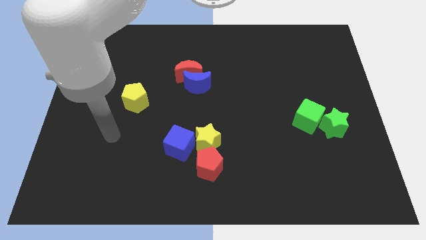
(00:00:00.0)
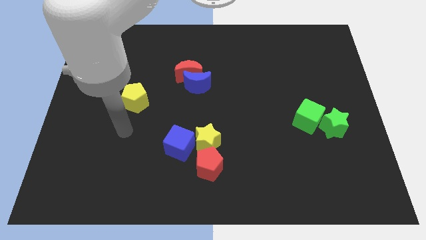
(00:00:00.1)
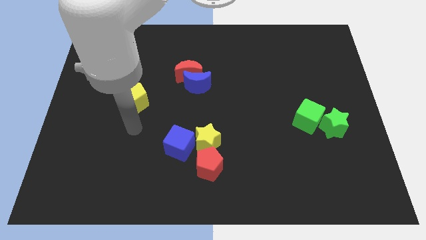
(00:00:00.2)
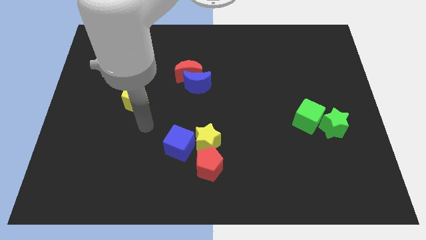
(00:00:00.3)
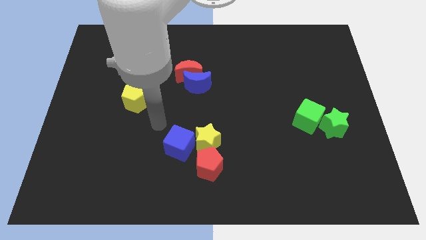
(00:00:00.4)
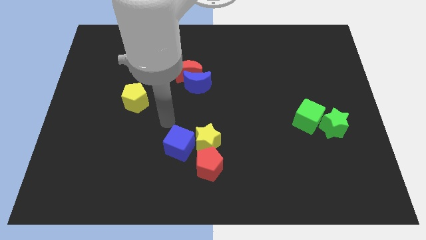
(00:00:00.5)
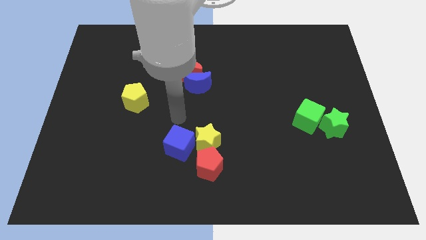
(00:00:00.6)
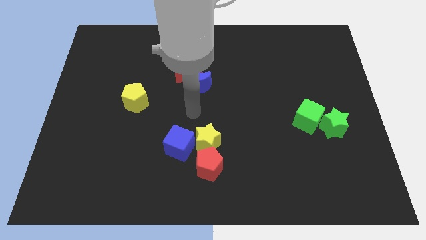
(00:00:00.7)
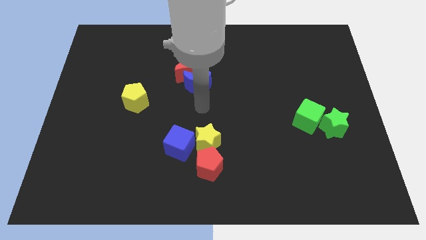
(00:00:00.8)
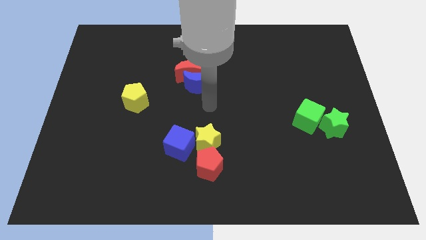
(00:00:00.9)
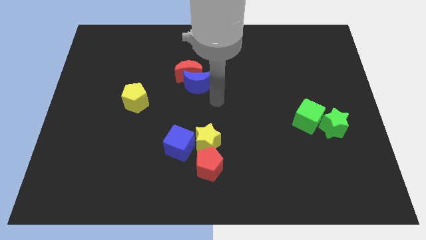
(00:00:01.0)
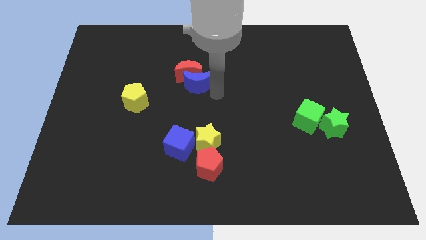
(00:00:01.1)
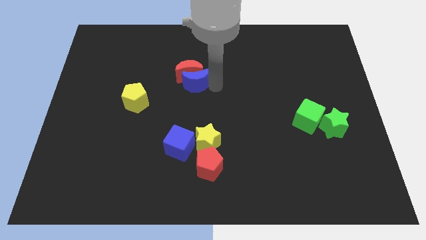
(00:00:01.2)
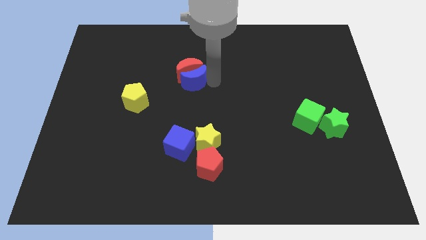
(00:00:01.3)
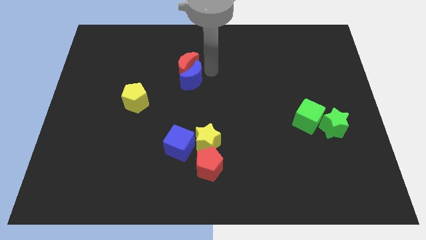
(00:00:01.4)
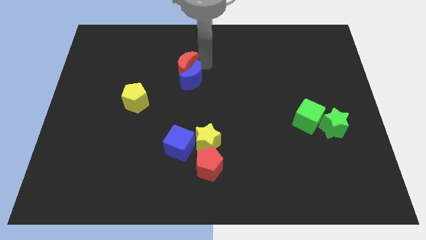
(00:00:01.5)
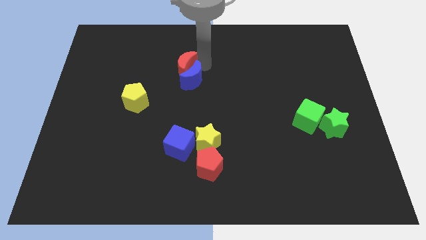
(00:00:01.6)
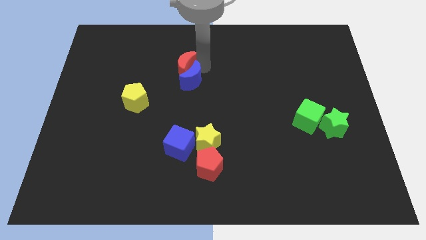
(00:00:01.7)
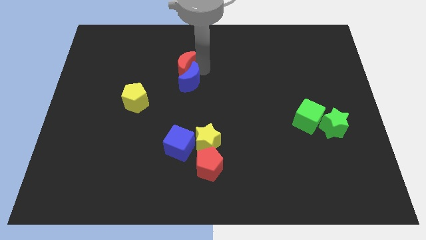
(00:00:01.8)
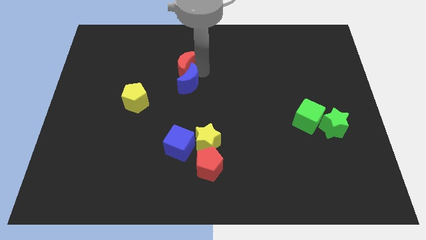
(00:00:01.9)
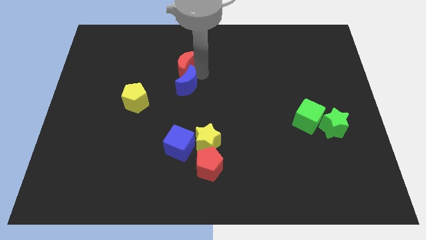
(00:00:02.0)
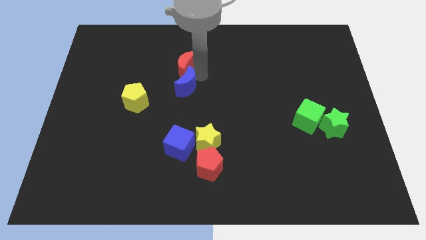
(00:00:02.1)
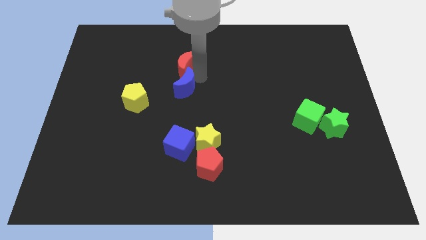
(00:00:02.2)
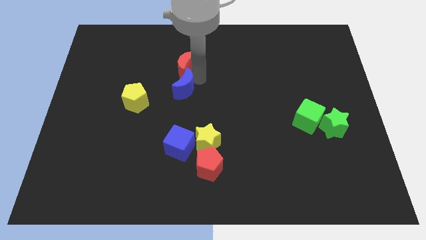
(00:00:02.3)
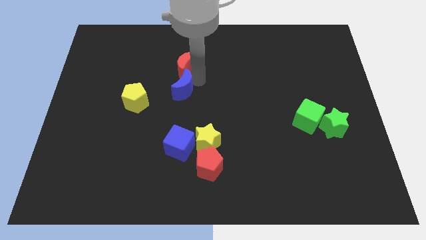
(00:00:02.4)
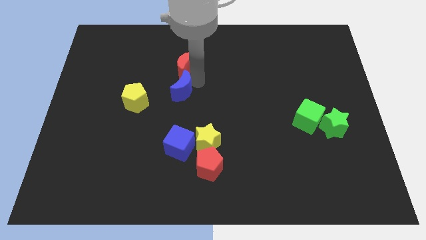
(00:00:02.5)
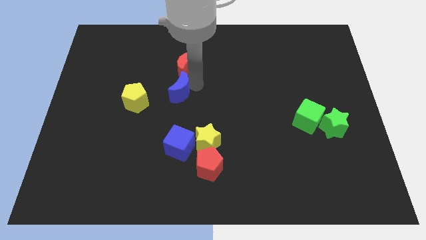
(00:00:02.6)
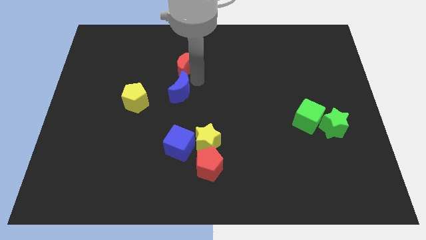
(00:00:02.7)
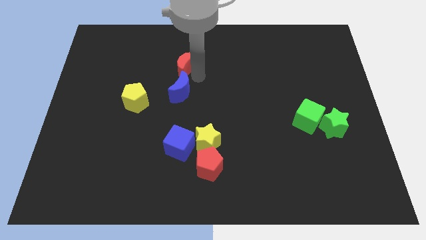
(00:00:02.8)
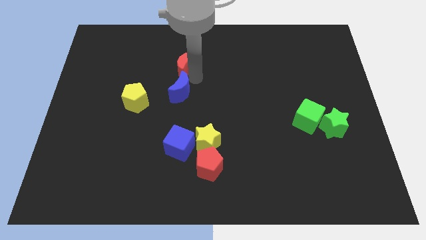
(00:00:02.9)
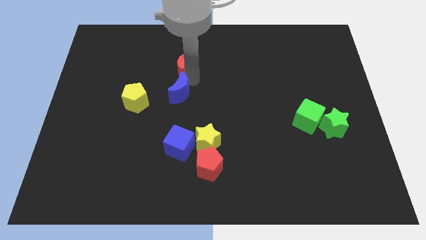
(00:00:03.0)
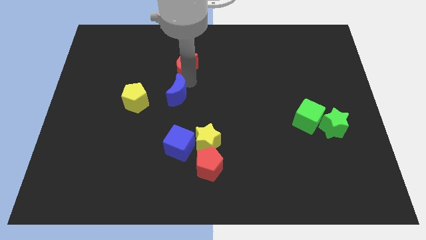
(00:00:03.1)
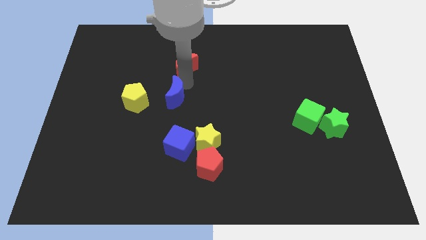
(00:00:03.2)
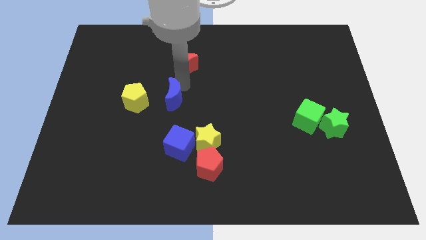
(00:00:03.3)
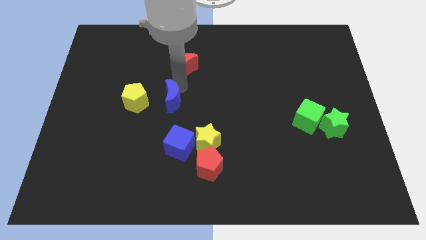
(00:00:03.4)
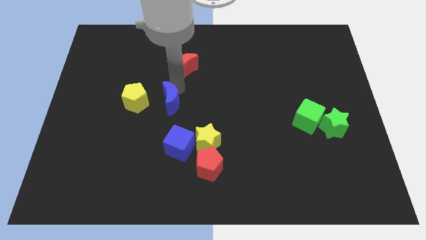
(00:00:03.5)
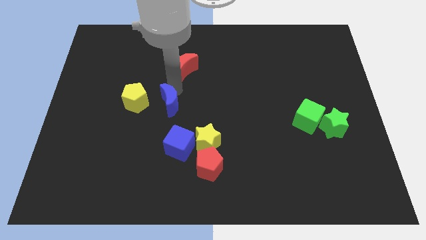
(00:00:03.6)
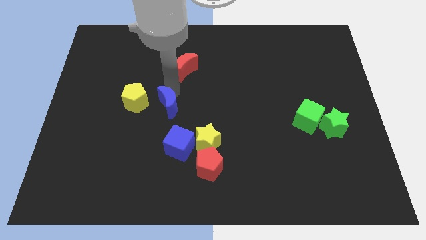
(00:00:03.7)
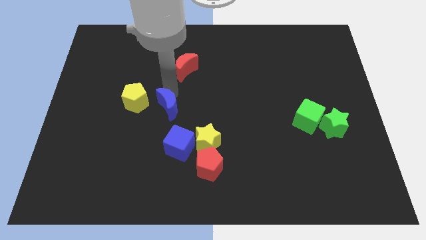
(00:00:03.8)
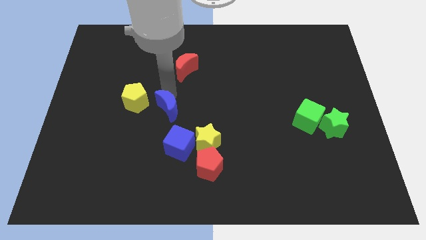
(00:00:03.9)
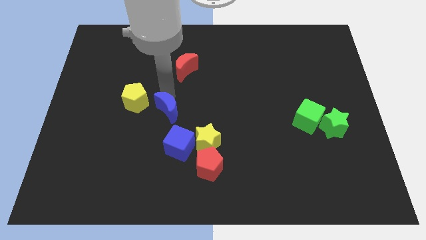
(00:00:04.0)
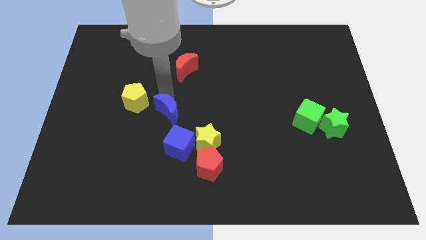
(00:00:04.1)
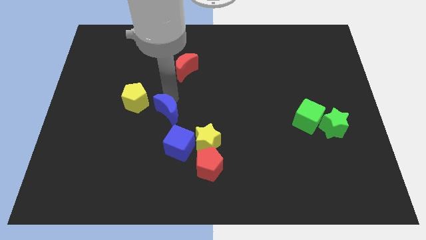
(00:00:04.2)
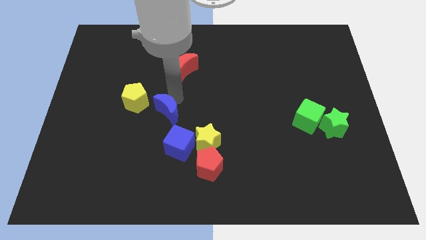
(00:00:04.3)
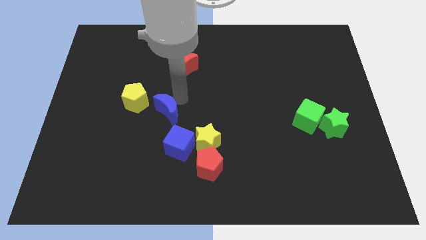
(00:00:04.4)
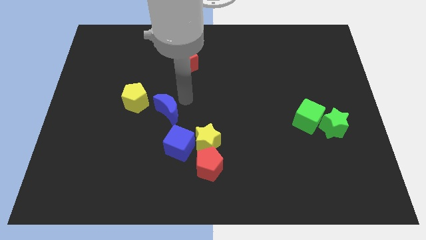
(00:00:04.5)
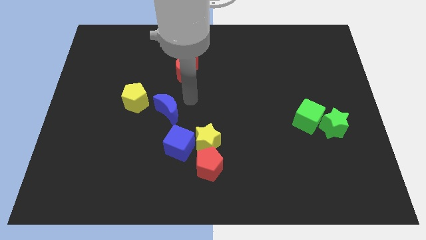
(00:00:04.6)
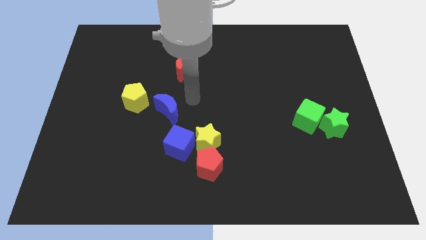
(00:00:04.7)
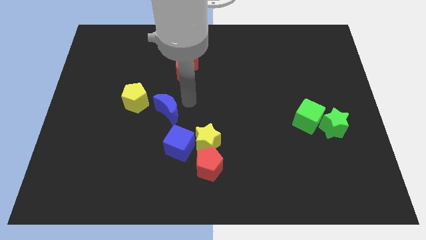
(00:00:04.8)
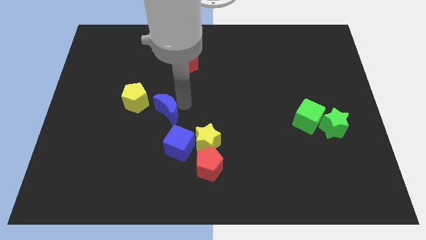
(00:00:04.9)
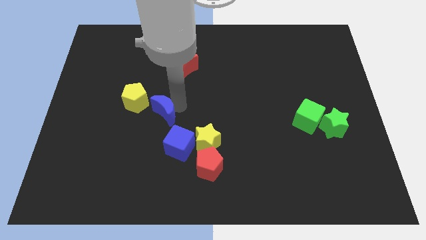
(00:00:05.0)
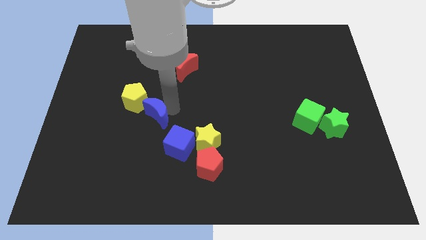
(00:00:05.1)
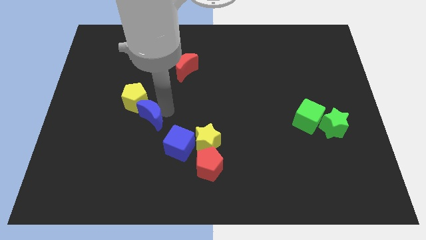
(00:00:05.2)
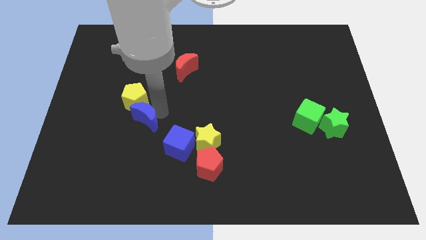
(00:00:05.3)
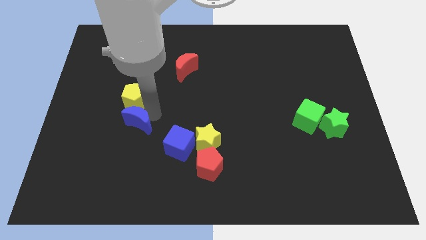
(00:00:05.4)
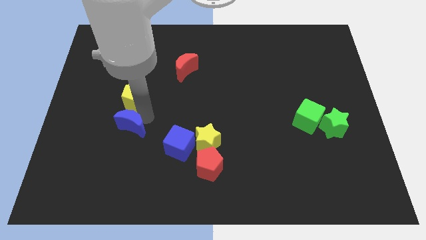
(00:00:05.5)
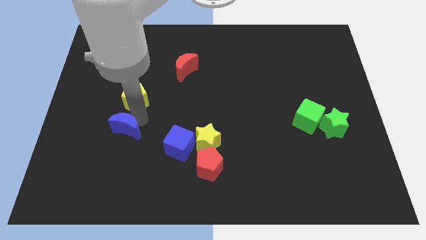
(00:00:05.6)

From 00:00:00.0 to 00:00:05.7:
slide the blue moon downwards and to the left diagonally

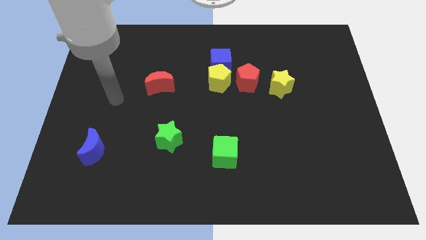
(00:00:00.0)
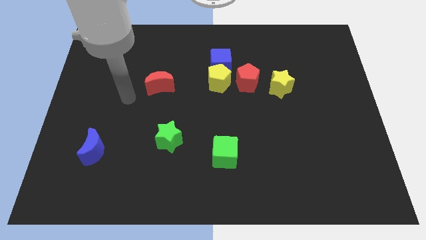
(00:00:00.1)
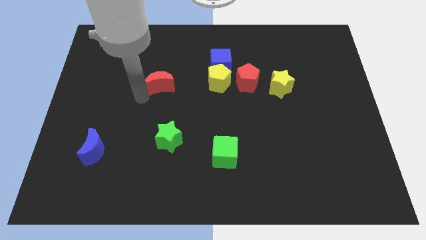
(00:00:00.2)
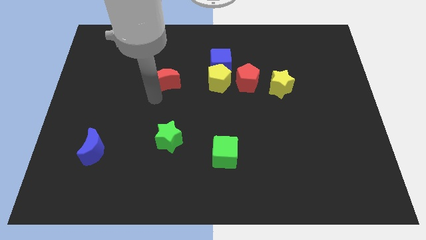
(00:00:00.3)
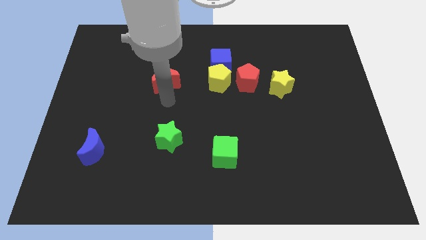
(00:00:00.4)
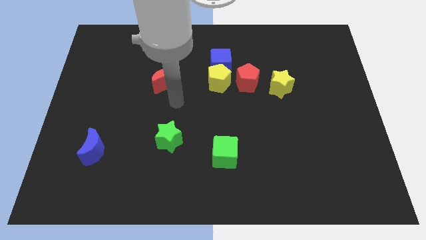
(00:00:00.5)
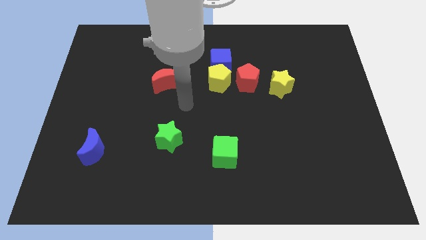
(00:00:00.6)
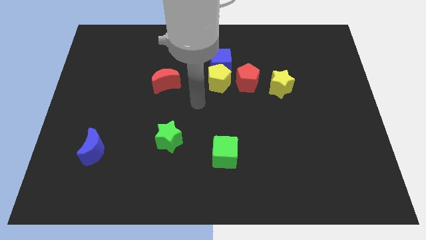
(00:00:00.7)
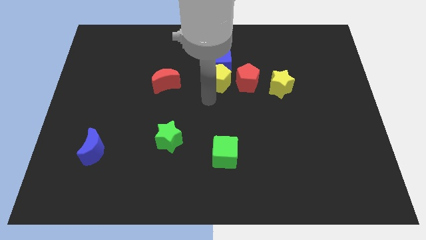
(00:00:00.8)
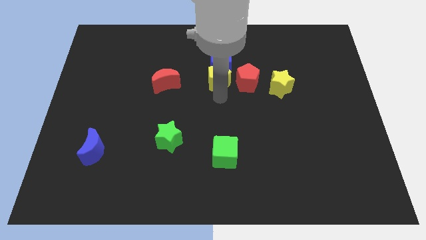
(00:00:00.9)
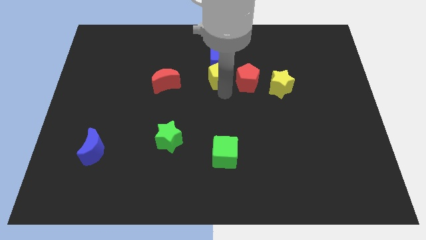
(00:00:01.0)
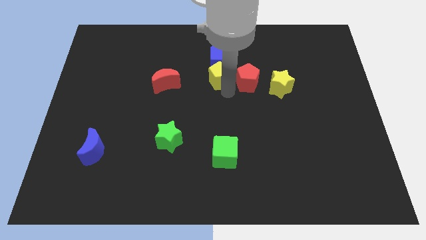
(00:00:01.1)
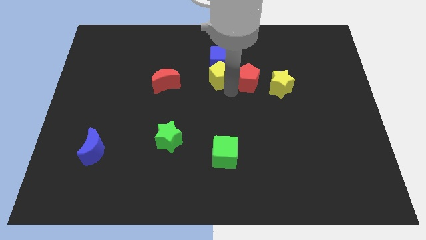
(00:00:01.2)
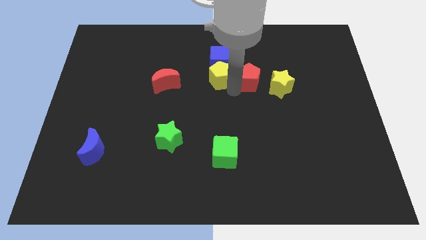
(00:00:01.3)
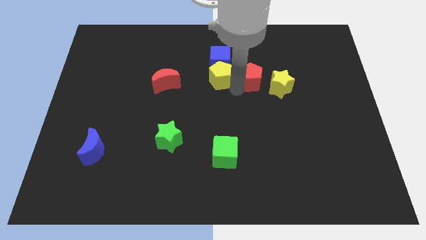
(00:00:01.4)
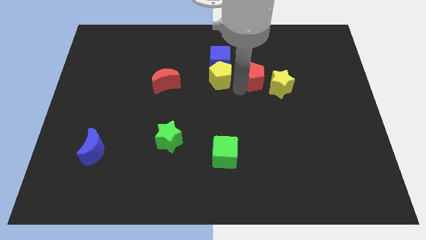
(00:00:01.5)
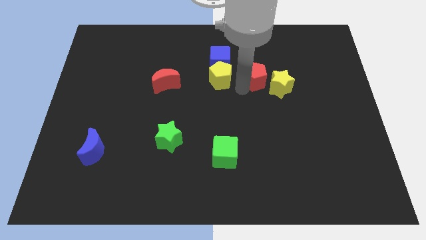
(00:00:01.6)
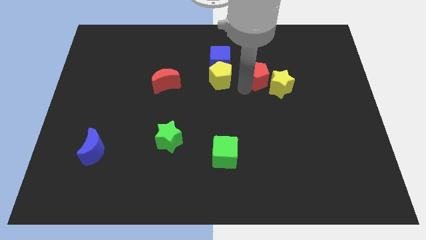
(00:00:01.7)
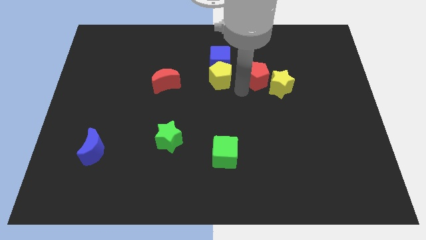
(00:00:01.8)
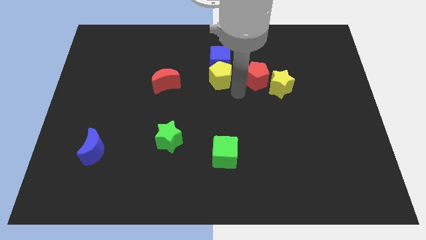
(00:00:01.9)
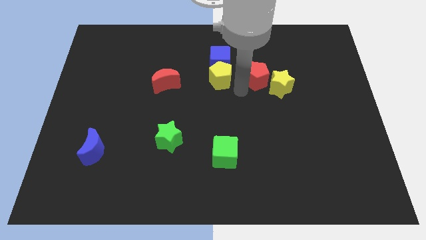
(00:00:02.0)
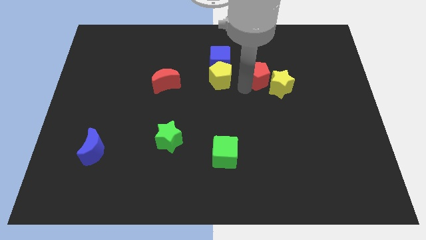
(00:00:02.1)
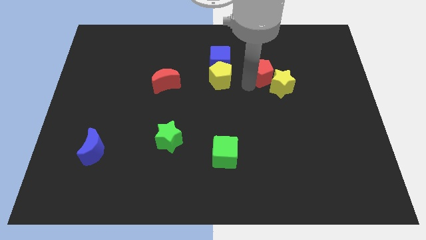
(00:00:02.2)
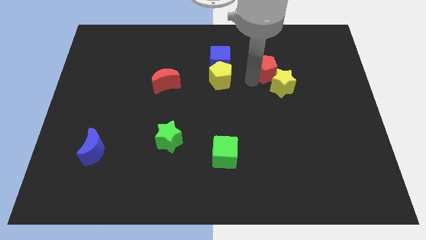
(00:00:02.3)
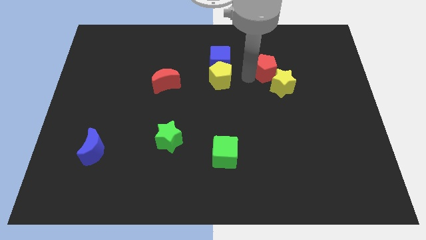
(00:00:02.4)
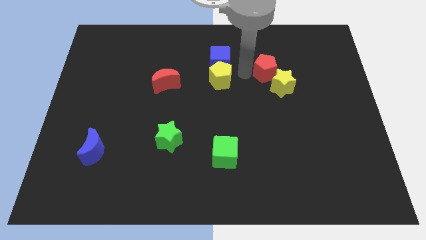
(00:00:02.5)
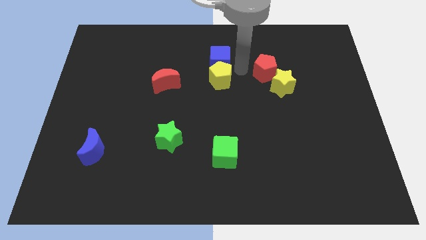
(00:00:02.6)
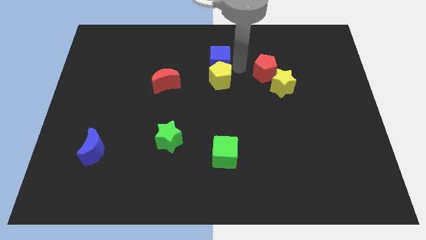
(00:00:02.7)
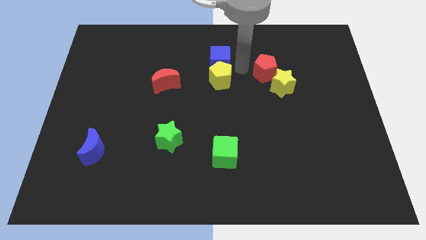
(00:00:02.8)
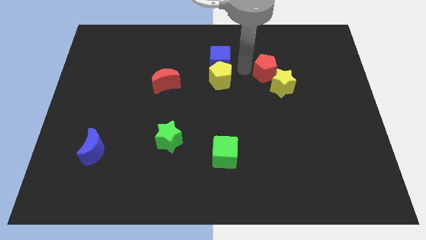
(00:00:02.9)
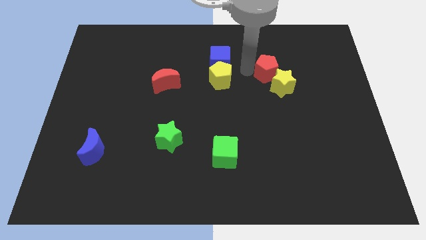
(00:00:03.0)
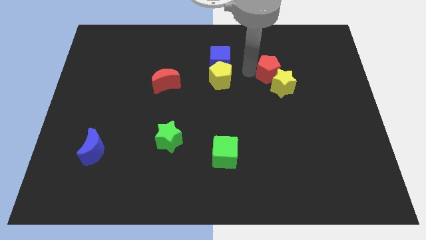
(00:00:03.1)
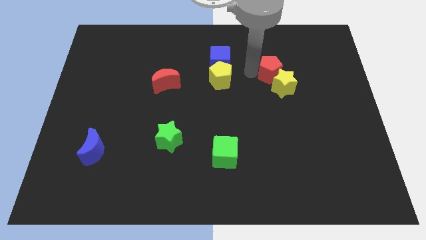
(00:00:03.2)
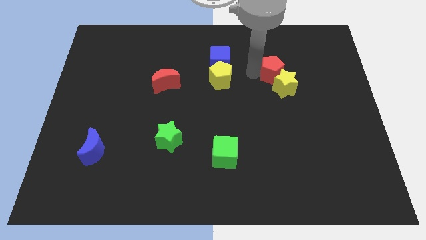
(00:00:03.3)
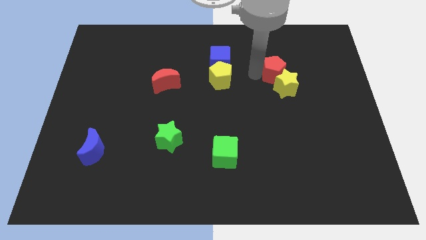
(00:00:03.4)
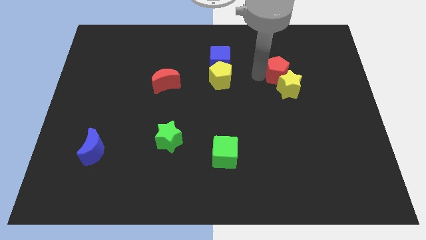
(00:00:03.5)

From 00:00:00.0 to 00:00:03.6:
slightly move the red pentagon right
